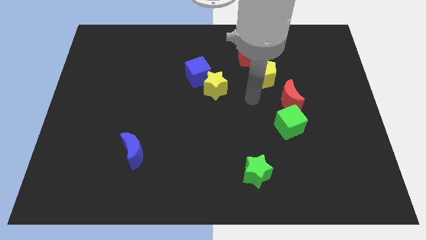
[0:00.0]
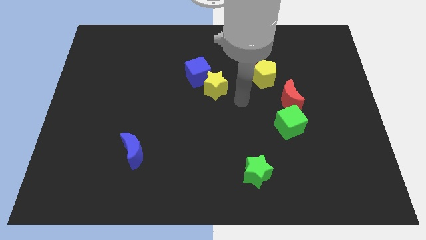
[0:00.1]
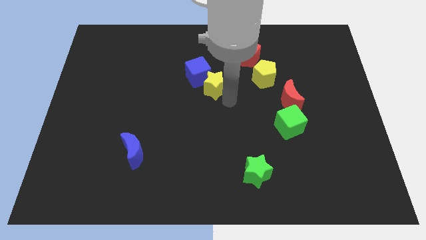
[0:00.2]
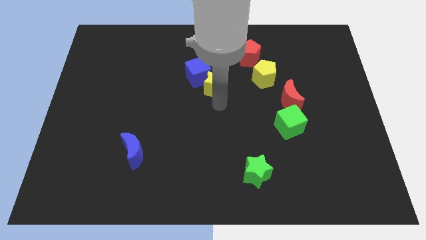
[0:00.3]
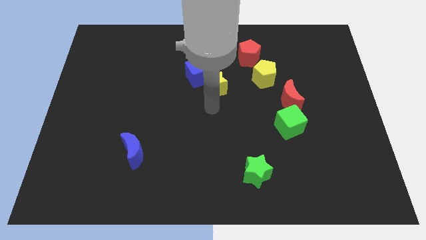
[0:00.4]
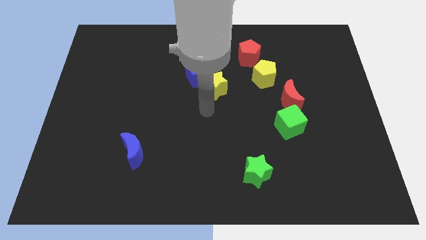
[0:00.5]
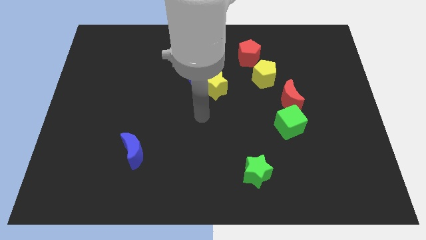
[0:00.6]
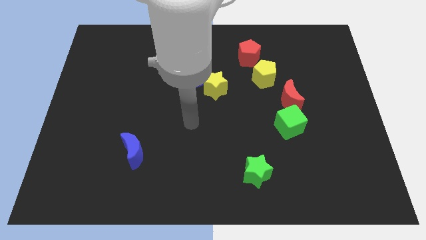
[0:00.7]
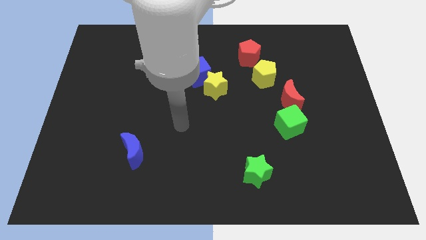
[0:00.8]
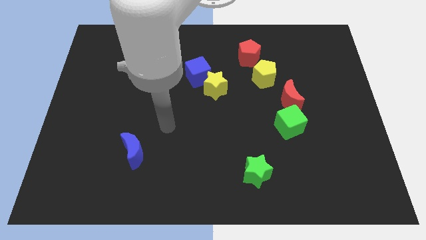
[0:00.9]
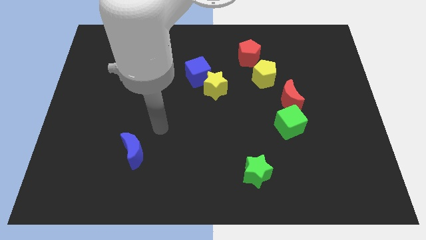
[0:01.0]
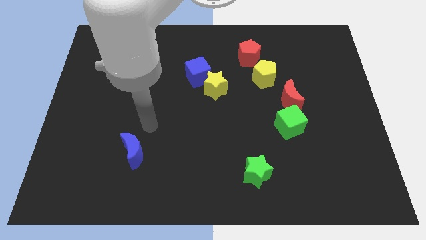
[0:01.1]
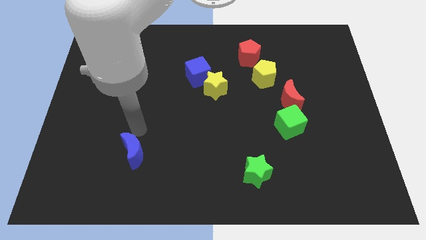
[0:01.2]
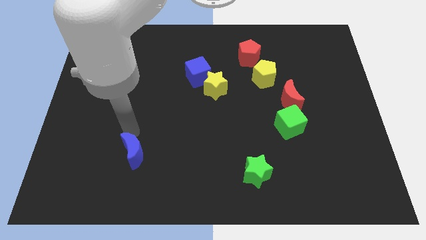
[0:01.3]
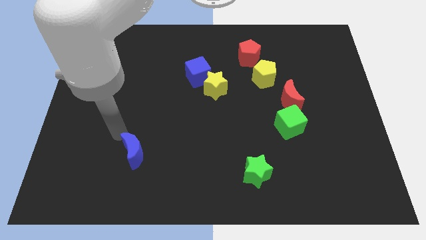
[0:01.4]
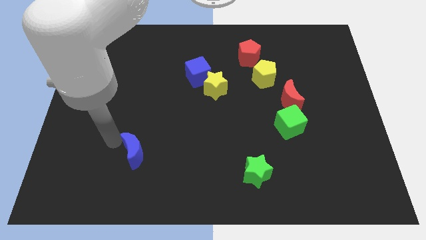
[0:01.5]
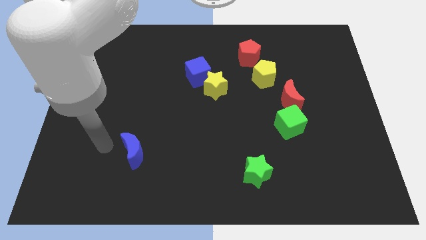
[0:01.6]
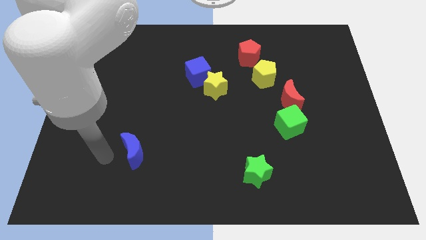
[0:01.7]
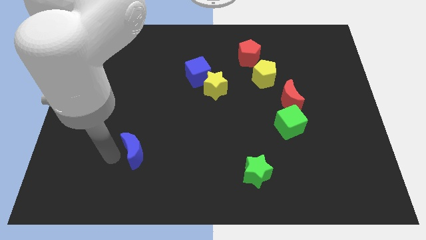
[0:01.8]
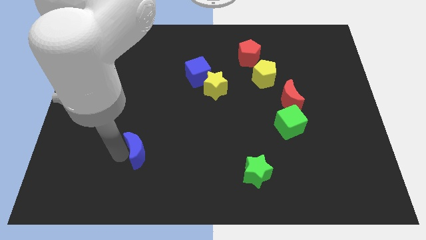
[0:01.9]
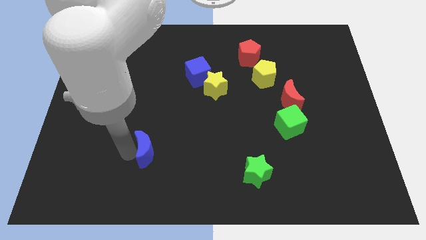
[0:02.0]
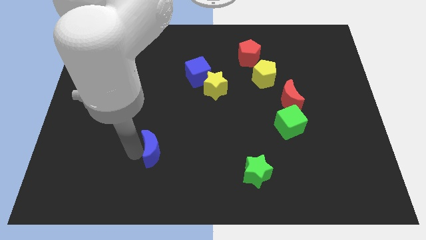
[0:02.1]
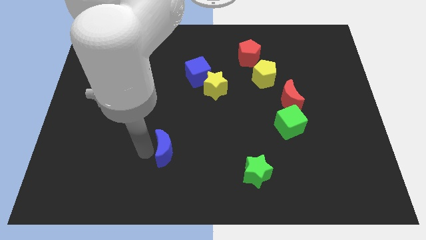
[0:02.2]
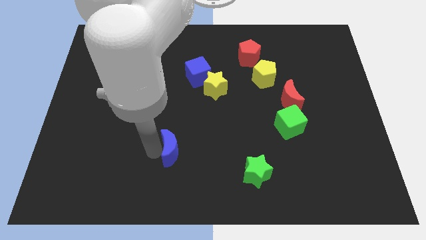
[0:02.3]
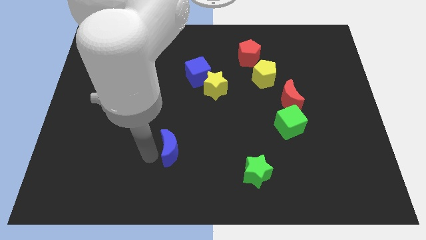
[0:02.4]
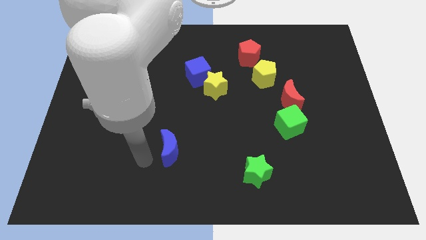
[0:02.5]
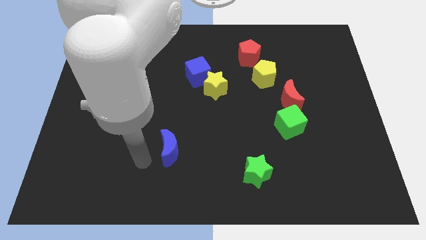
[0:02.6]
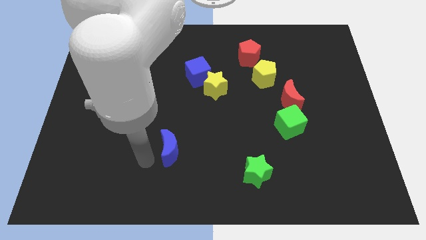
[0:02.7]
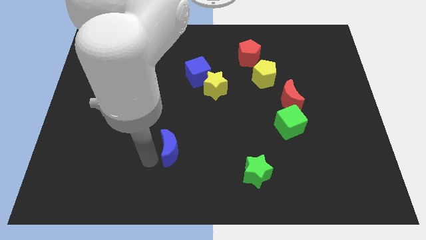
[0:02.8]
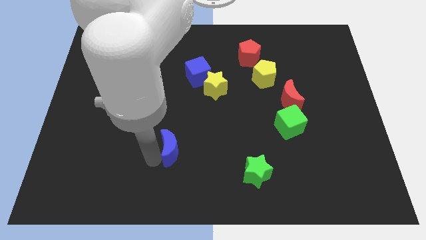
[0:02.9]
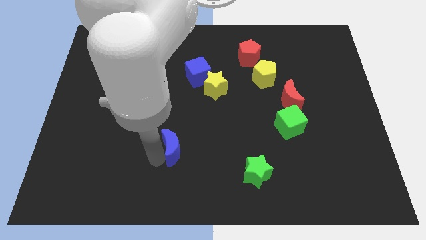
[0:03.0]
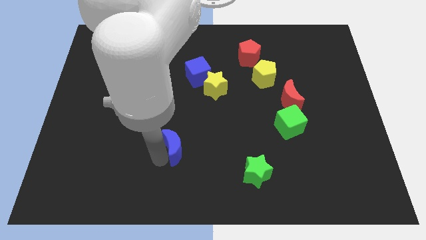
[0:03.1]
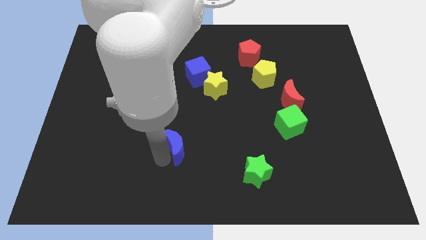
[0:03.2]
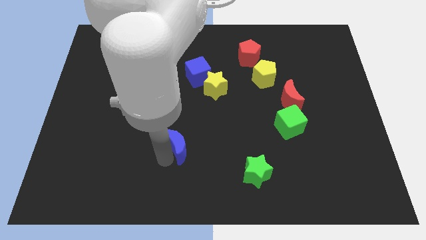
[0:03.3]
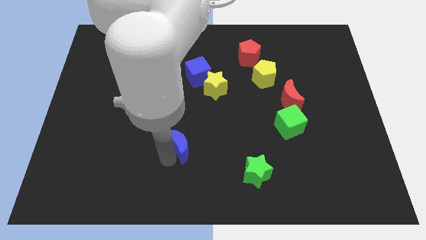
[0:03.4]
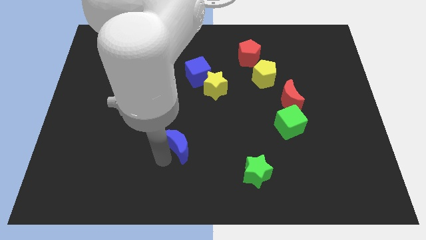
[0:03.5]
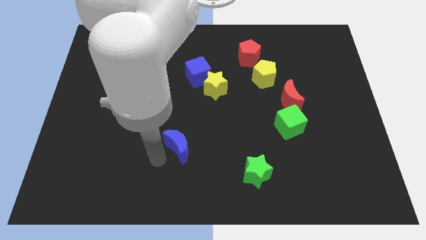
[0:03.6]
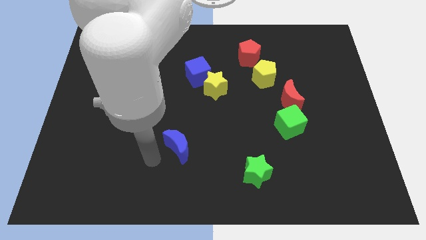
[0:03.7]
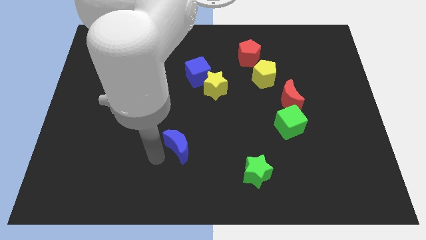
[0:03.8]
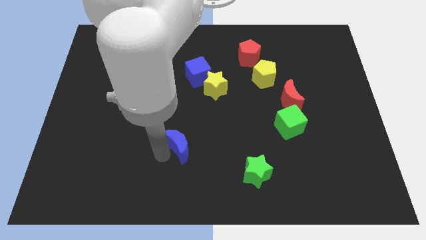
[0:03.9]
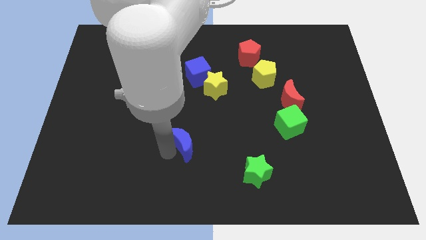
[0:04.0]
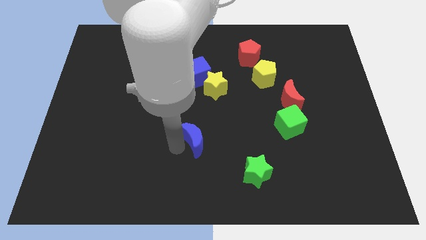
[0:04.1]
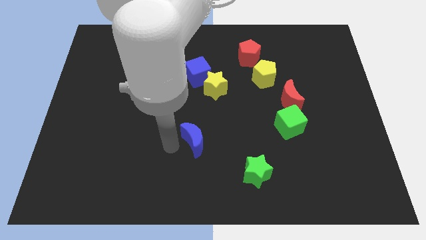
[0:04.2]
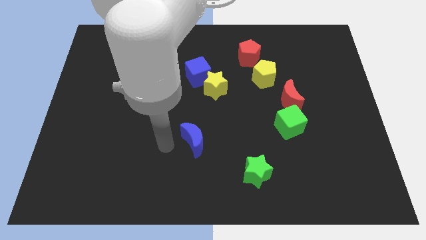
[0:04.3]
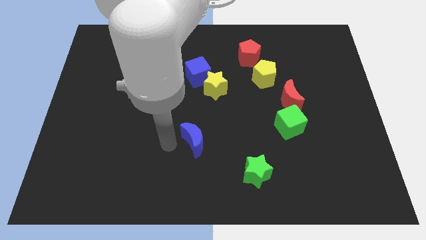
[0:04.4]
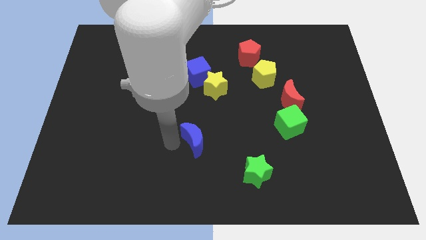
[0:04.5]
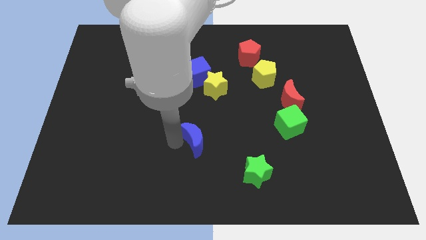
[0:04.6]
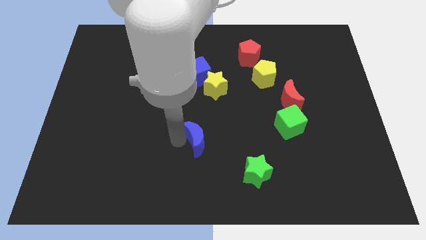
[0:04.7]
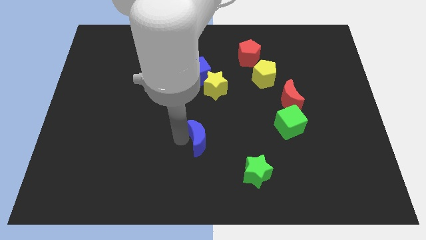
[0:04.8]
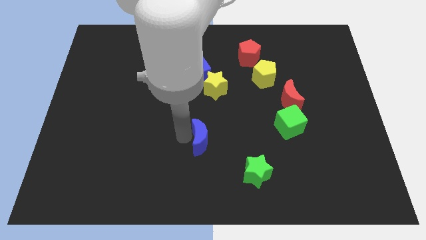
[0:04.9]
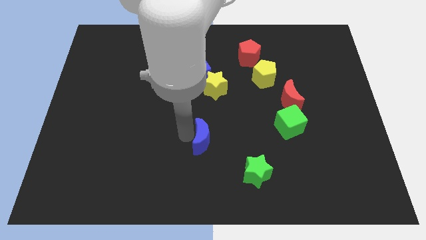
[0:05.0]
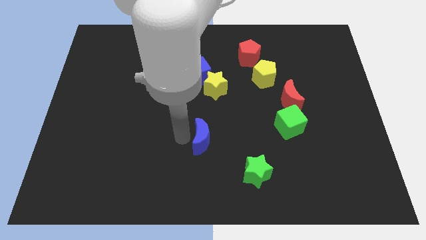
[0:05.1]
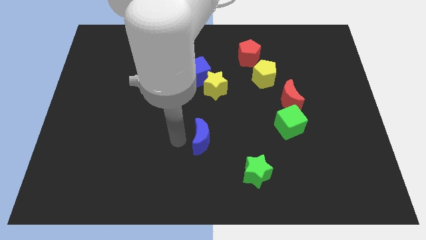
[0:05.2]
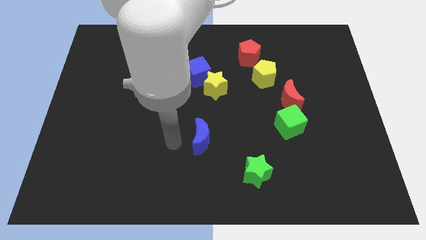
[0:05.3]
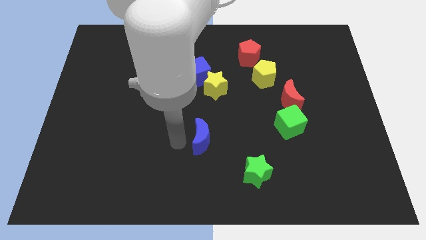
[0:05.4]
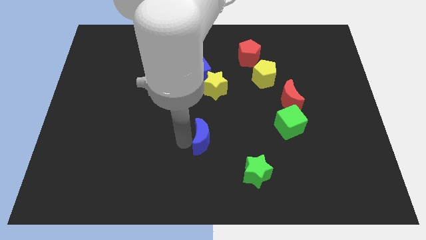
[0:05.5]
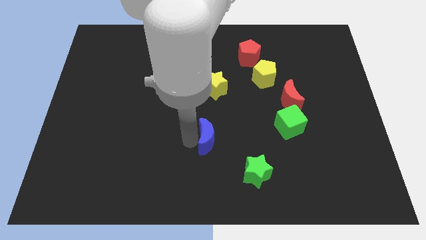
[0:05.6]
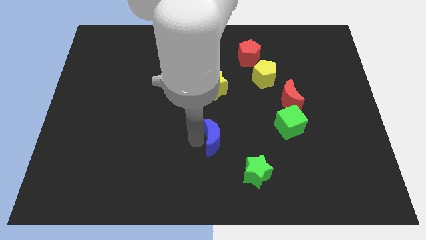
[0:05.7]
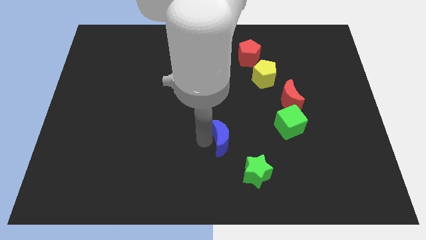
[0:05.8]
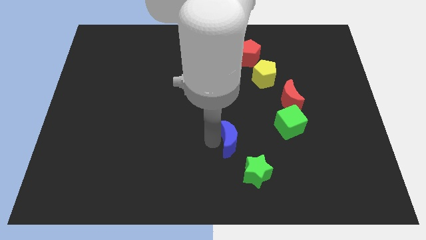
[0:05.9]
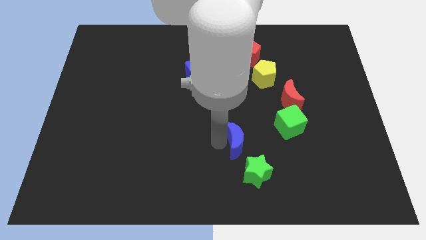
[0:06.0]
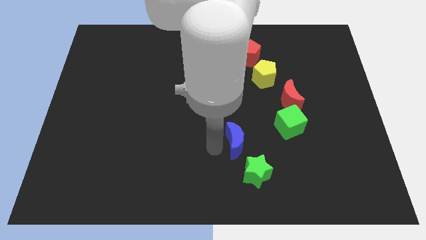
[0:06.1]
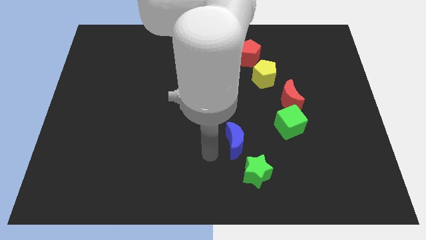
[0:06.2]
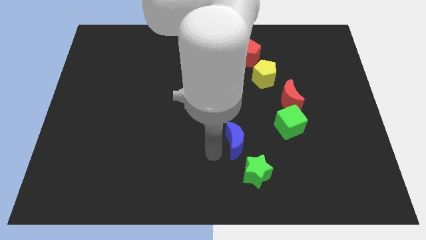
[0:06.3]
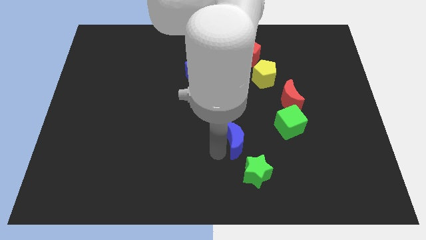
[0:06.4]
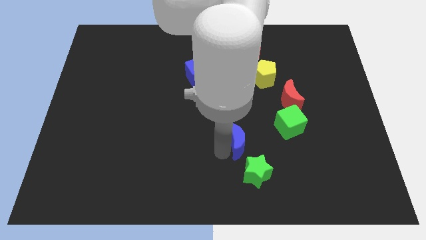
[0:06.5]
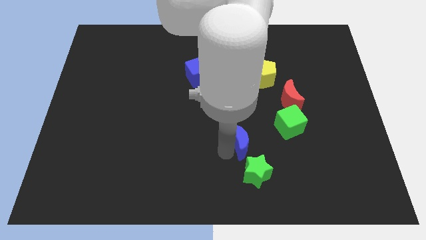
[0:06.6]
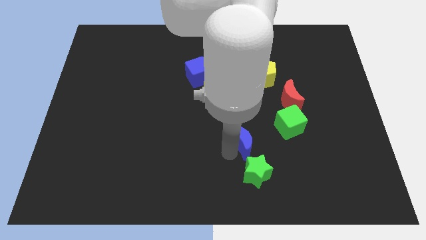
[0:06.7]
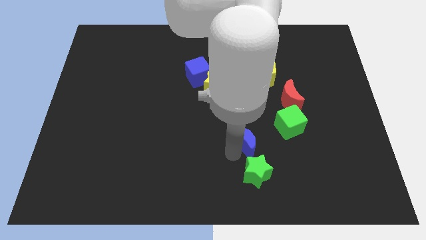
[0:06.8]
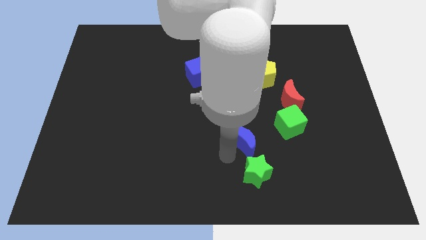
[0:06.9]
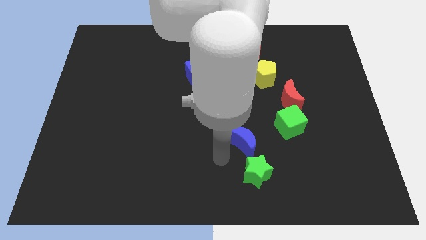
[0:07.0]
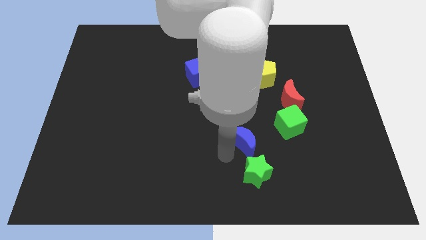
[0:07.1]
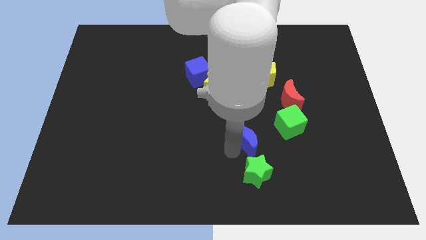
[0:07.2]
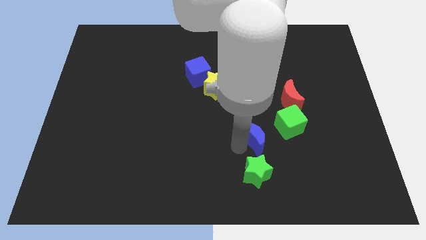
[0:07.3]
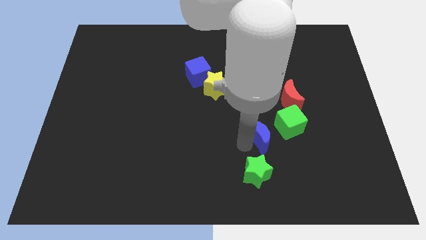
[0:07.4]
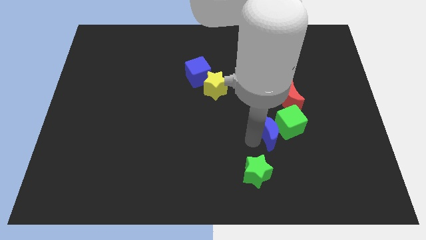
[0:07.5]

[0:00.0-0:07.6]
push the blue moon next to the green cube

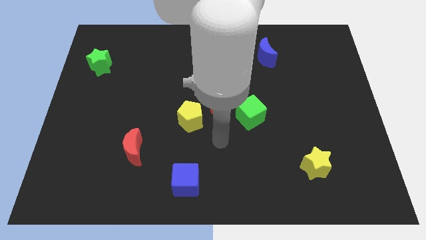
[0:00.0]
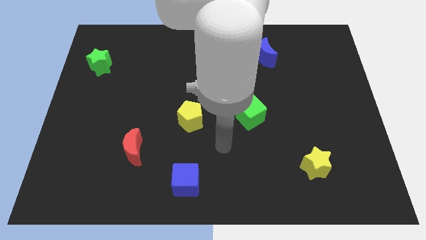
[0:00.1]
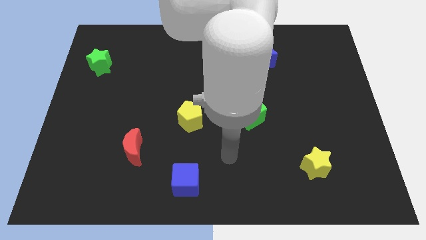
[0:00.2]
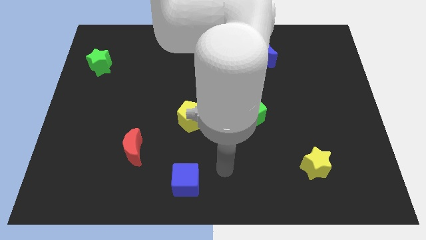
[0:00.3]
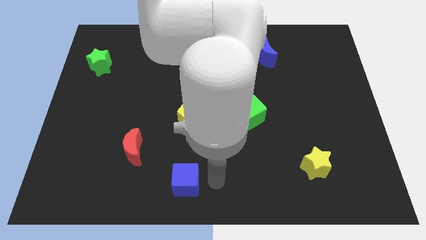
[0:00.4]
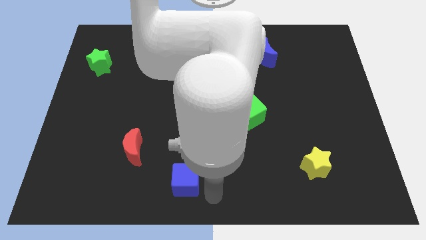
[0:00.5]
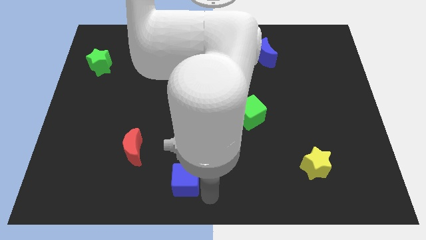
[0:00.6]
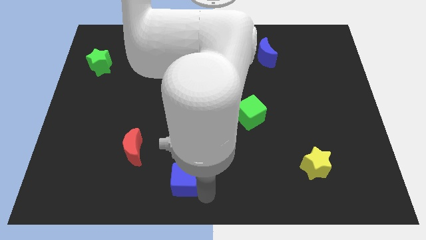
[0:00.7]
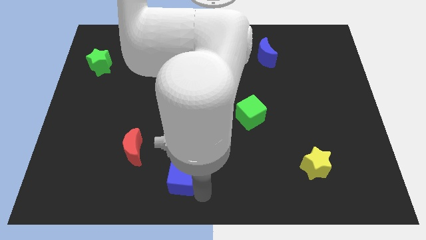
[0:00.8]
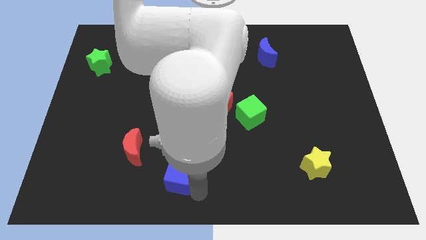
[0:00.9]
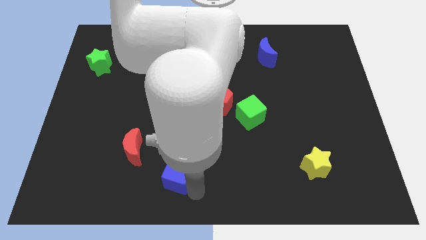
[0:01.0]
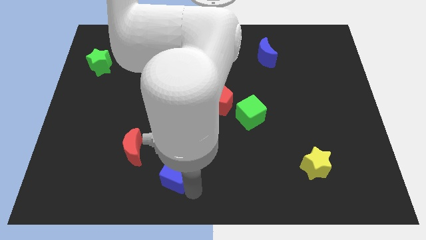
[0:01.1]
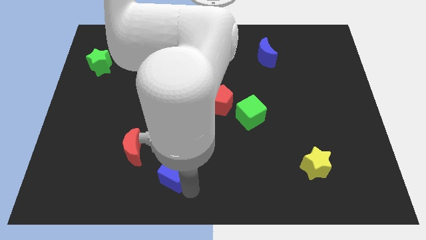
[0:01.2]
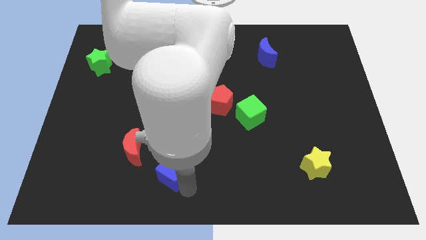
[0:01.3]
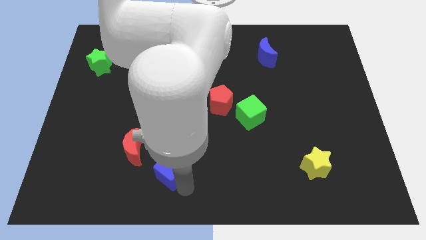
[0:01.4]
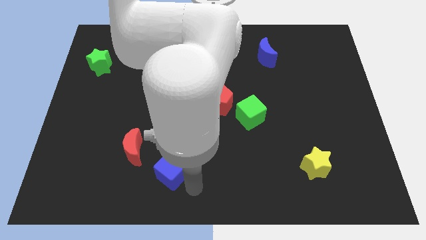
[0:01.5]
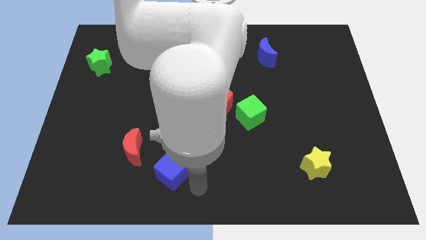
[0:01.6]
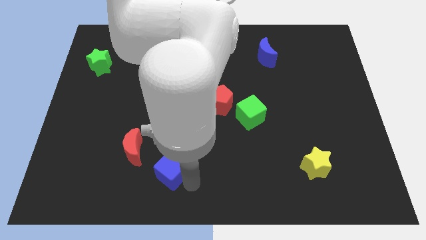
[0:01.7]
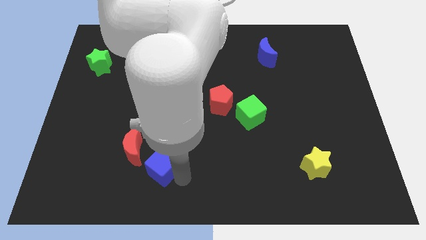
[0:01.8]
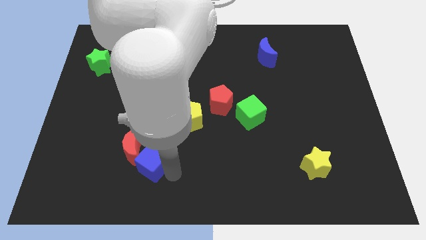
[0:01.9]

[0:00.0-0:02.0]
put the blue cube close to the red moon
